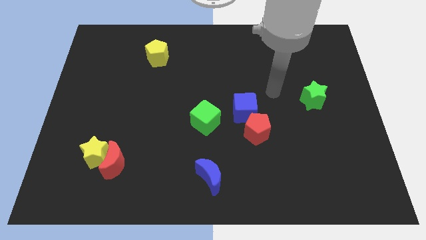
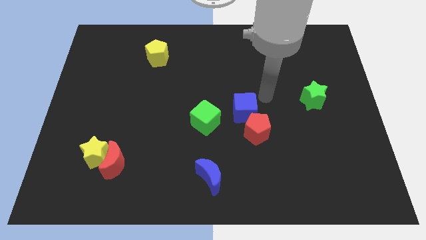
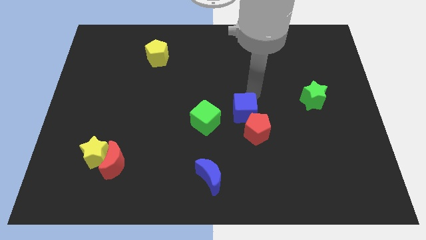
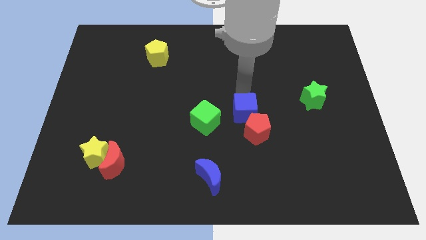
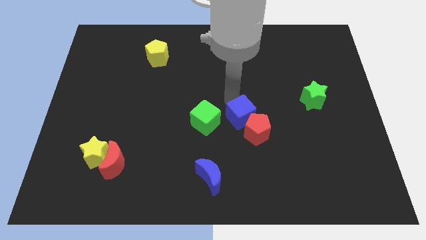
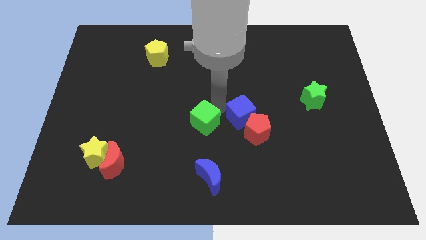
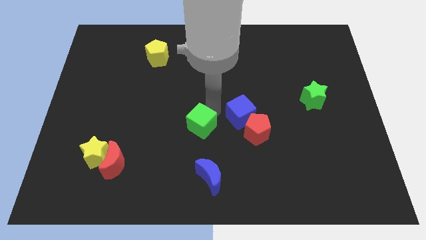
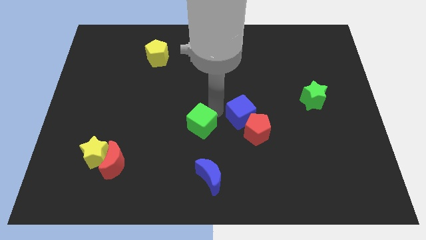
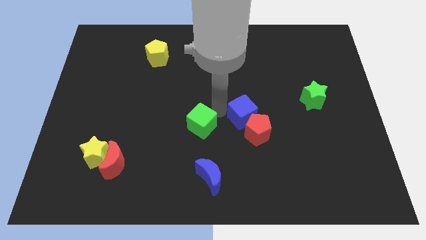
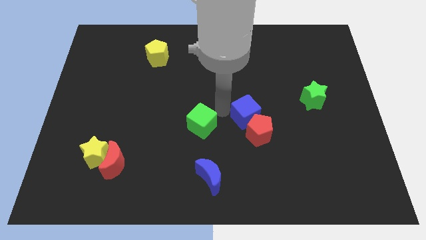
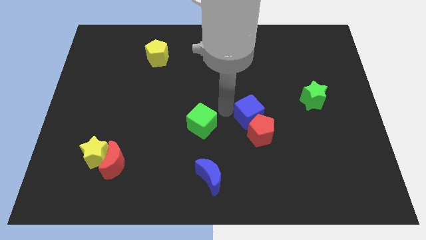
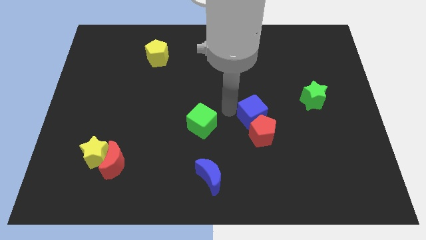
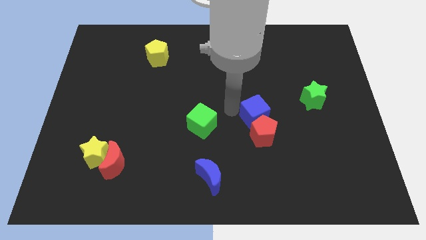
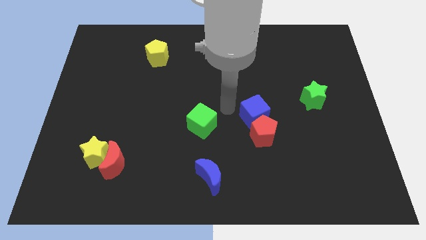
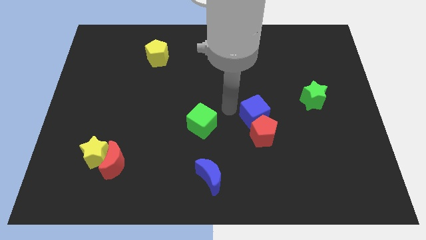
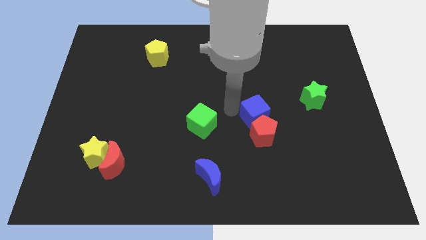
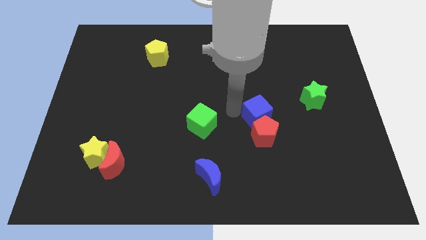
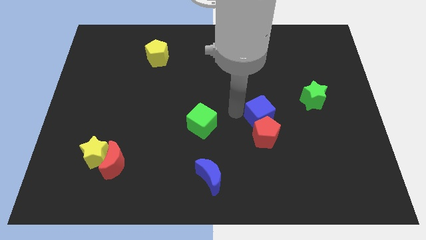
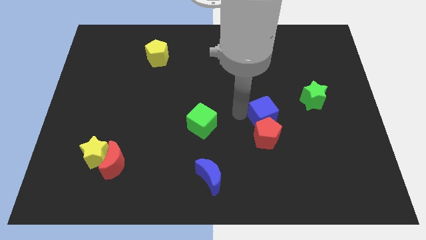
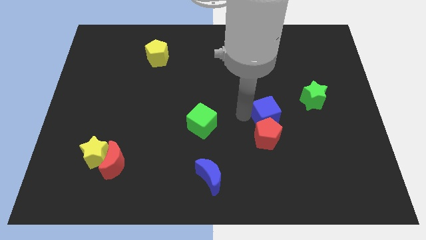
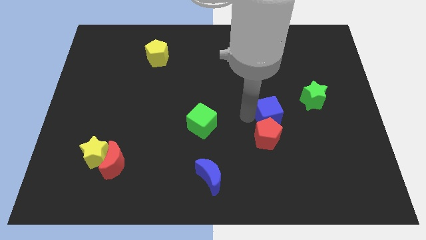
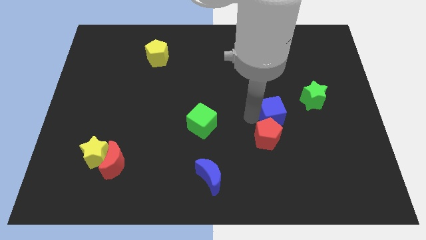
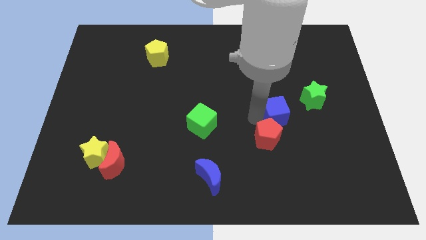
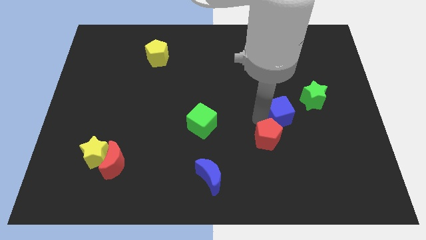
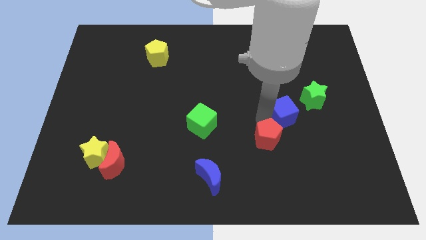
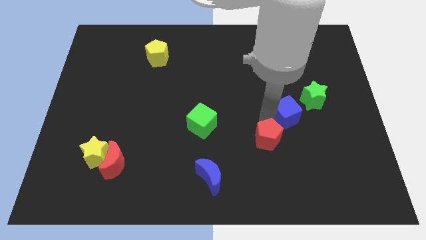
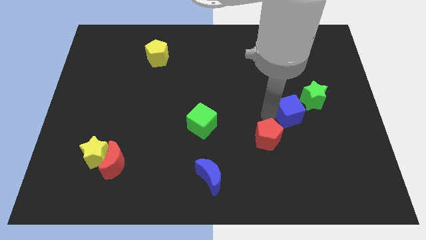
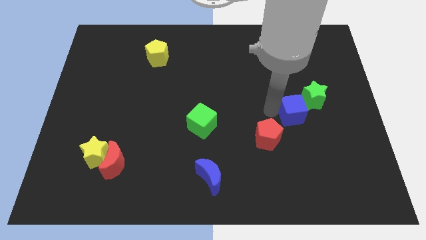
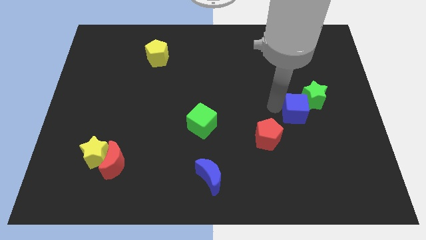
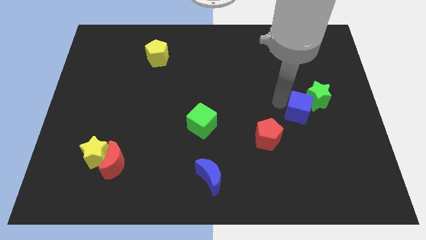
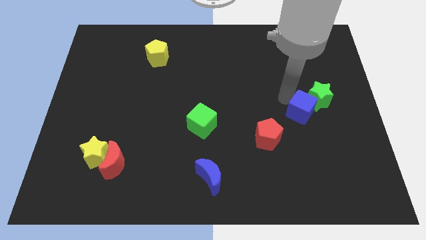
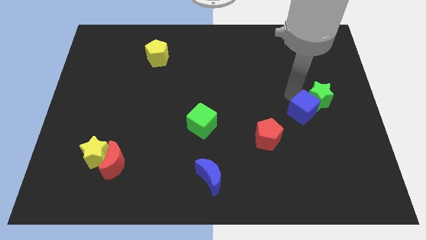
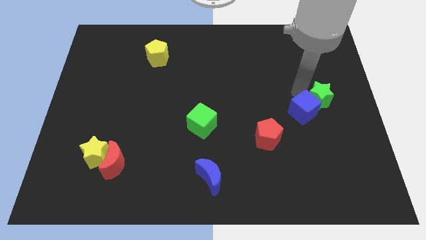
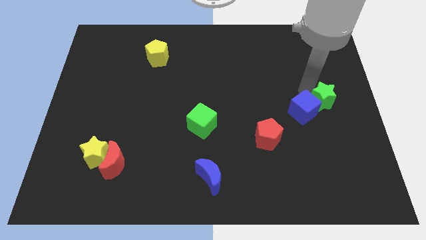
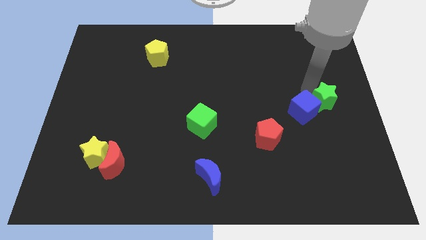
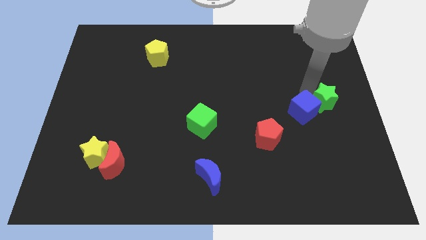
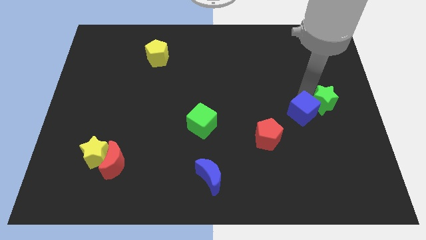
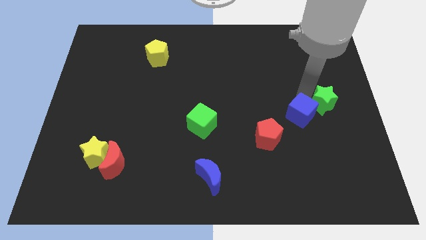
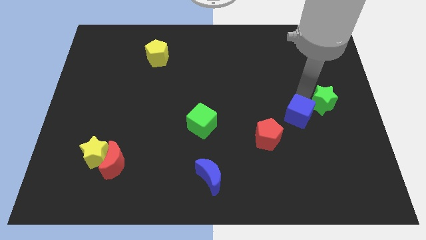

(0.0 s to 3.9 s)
push the blue cube diagonally downwards and to the right a little

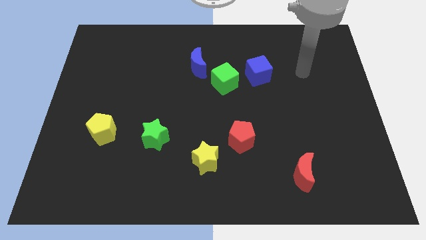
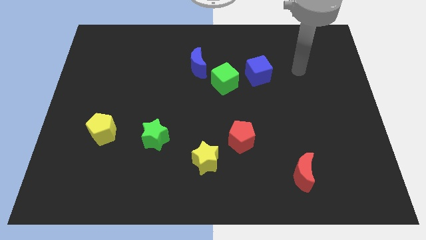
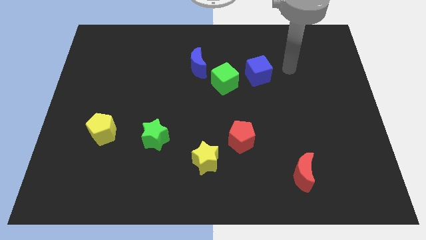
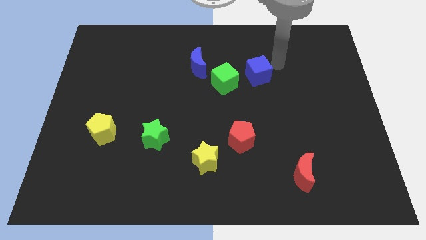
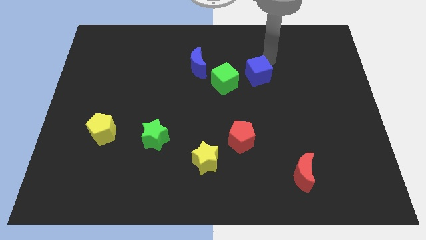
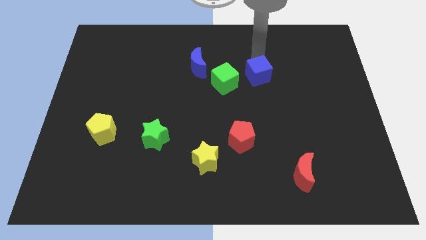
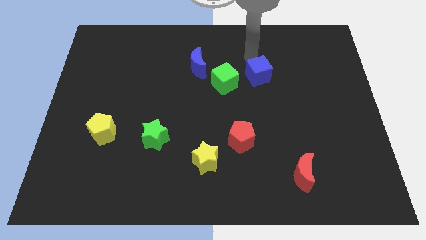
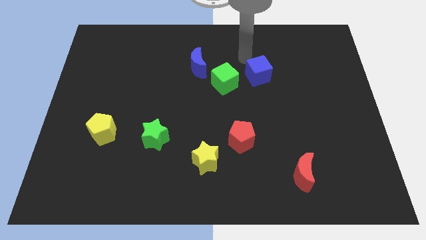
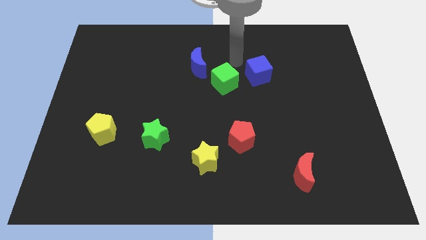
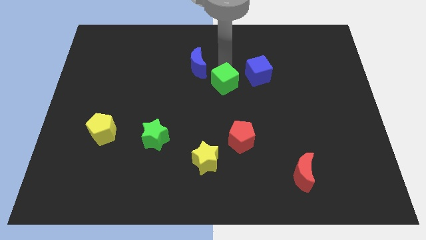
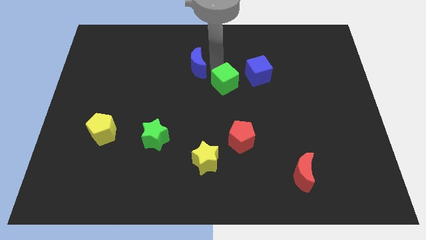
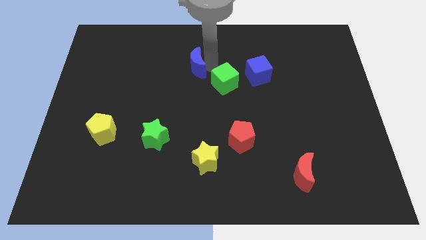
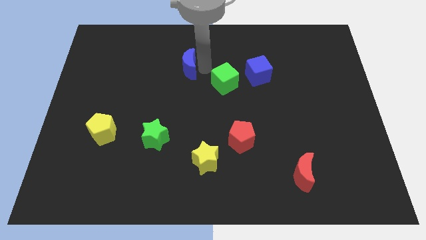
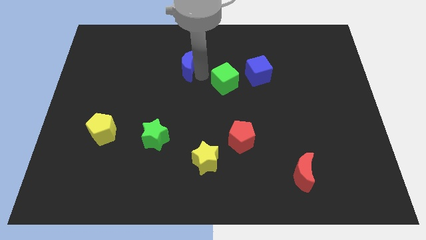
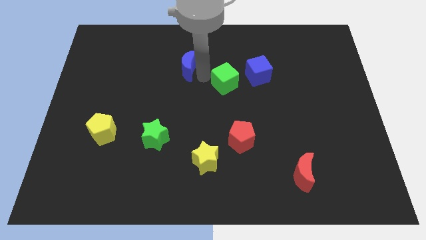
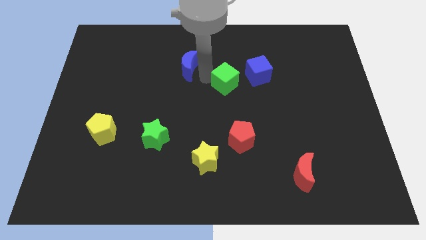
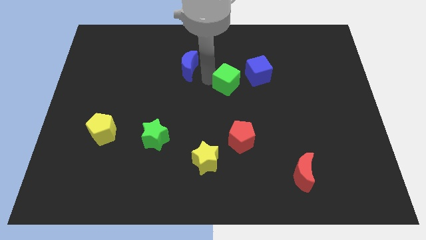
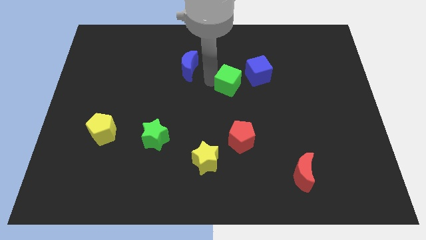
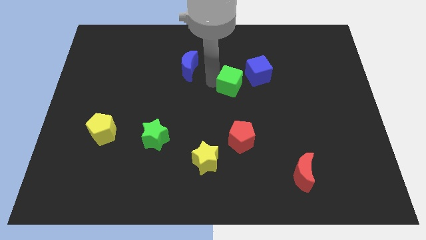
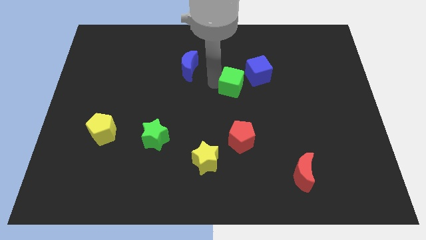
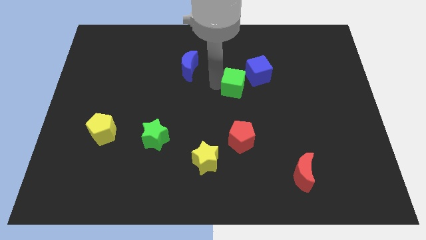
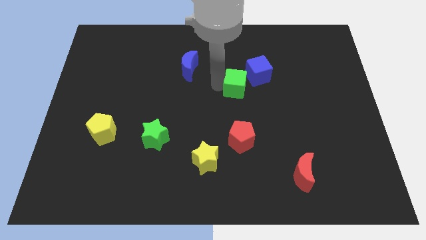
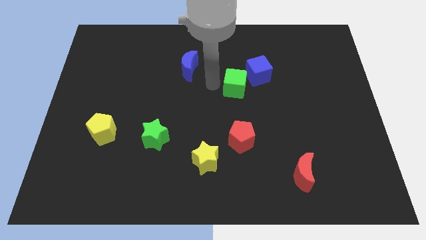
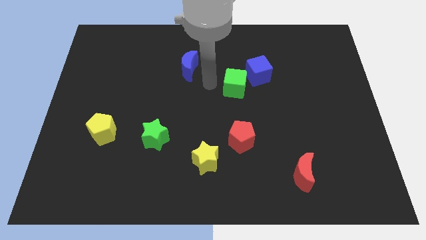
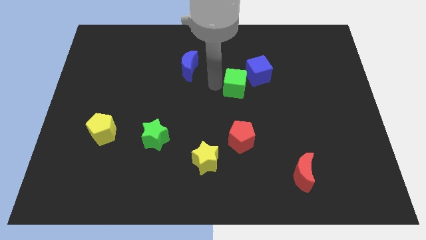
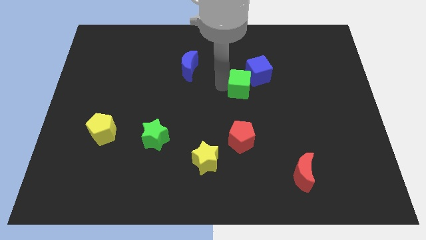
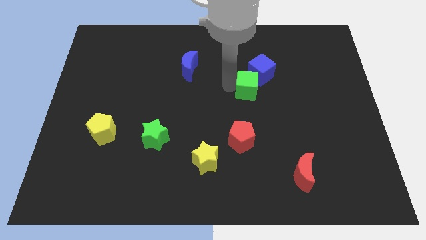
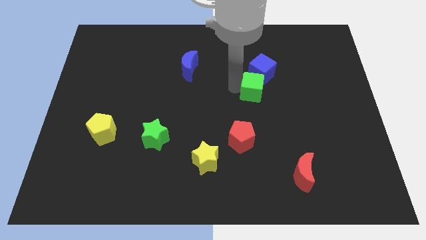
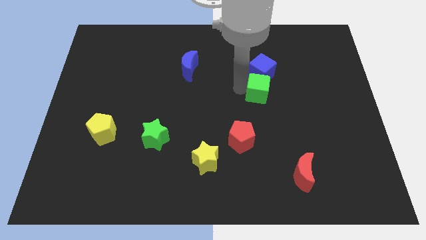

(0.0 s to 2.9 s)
slightly move the green cube right

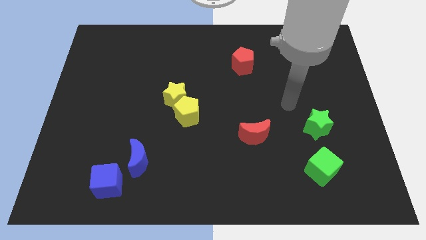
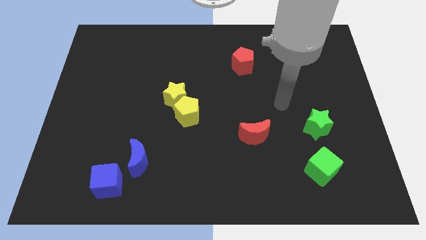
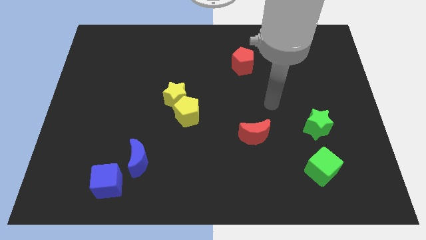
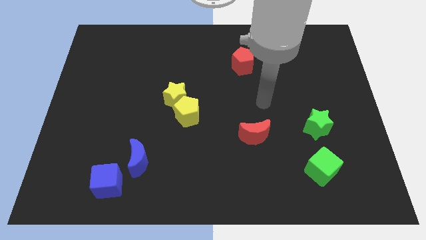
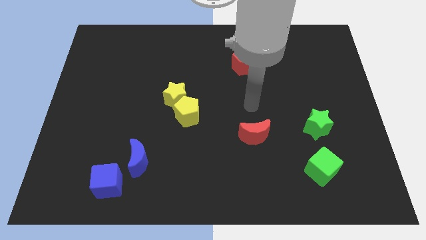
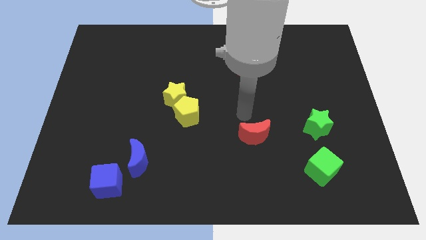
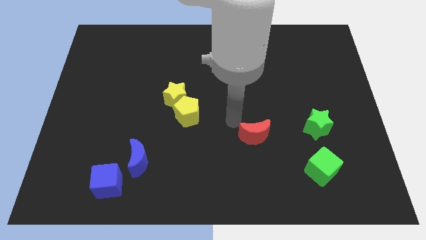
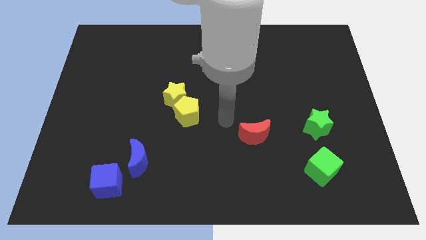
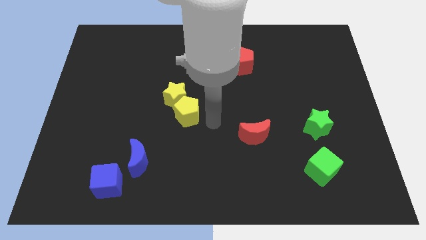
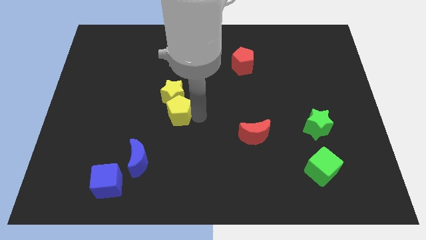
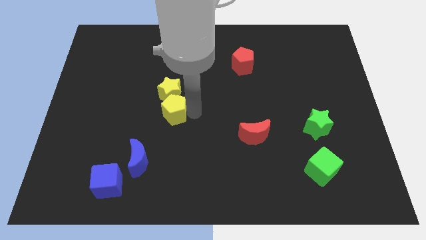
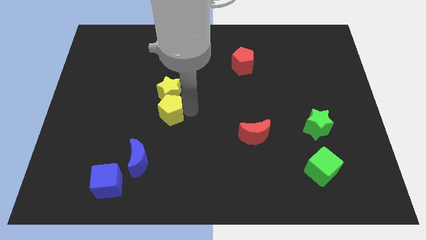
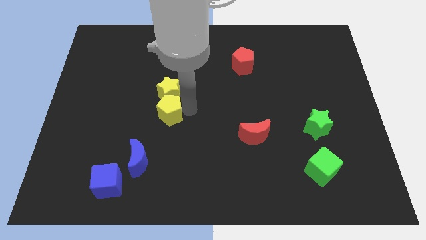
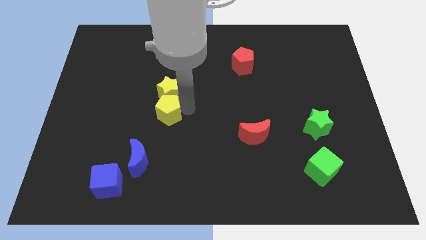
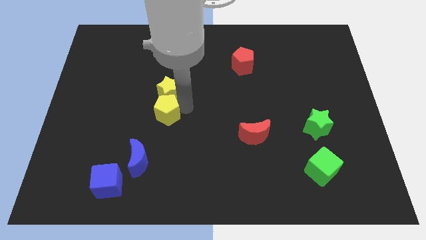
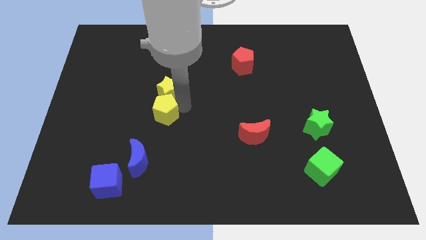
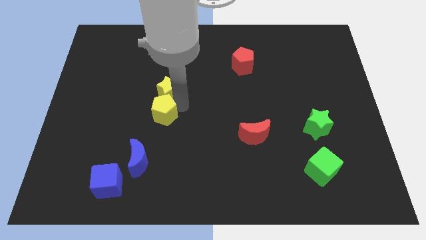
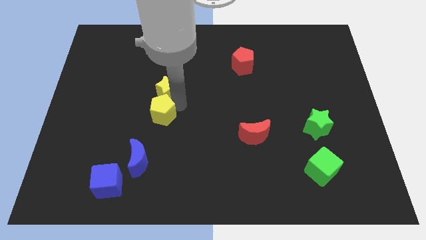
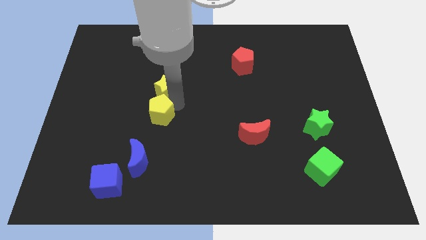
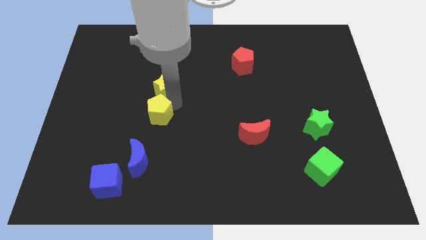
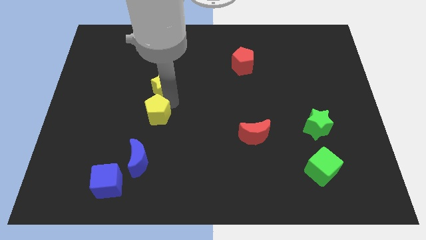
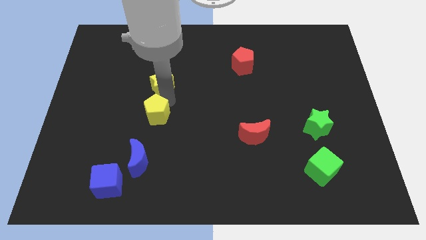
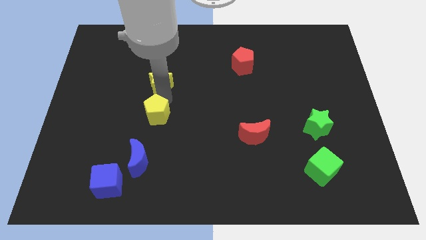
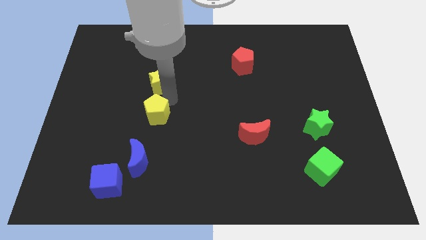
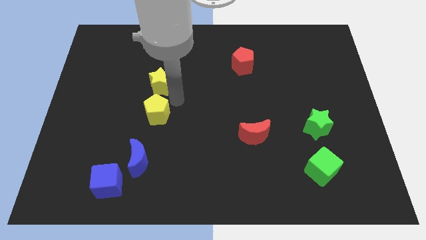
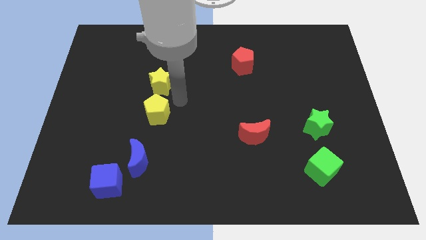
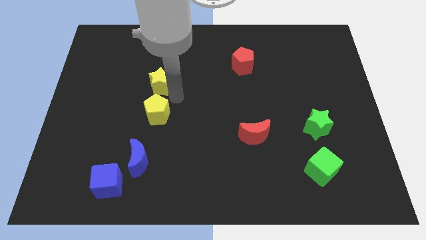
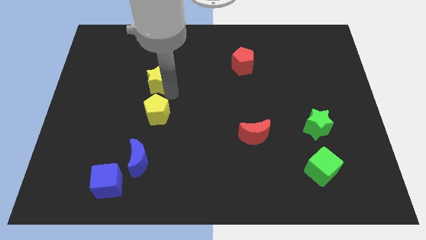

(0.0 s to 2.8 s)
push the yellow star somewhat upwards and to the left
